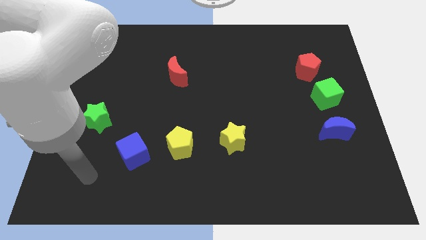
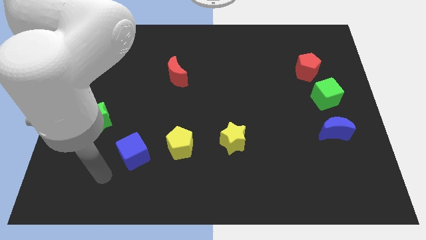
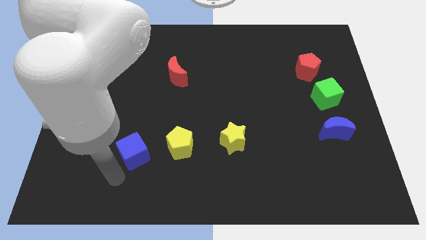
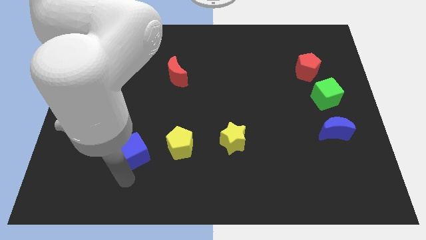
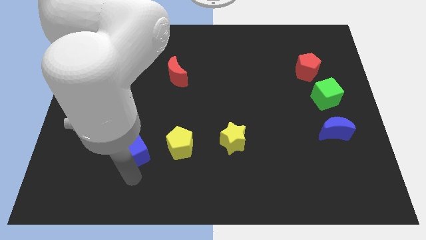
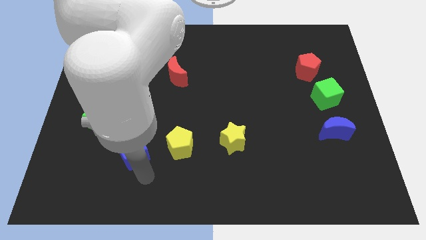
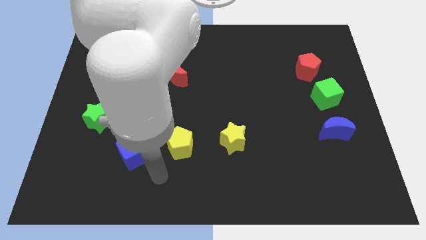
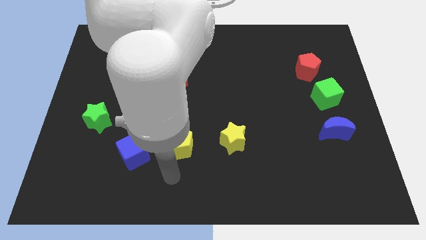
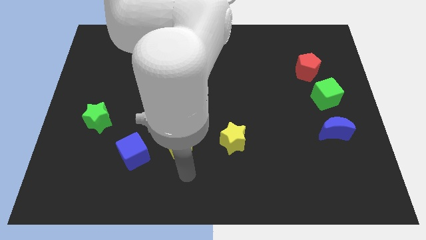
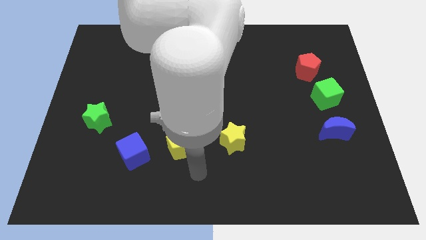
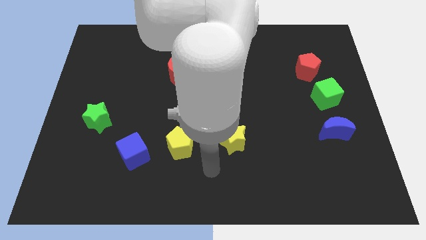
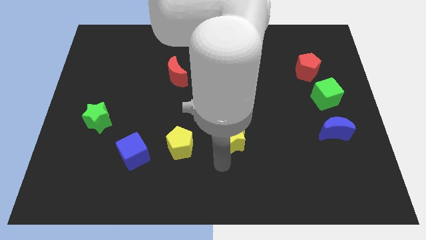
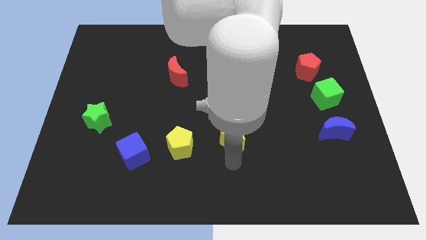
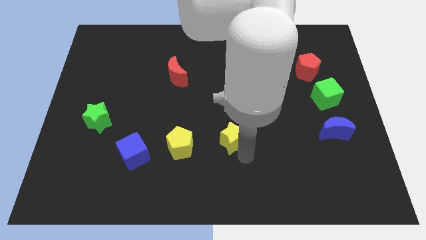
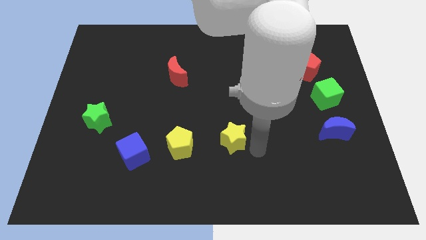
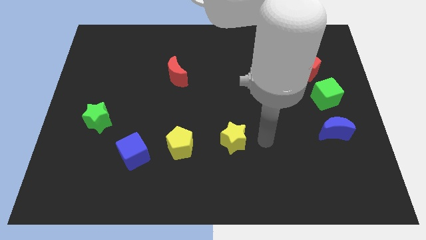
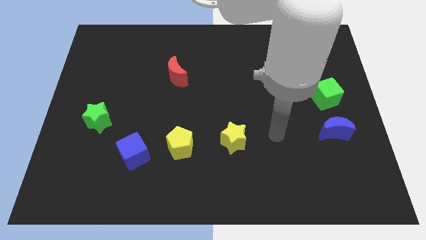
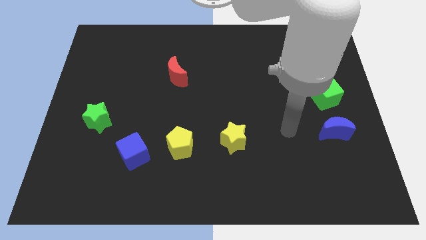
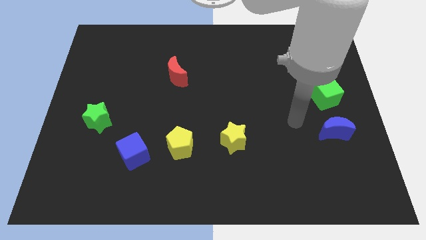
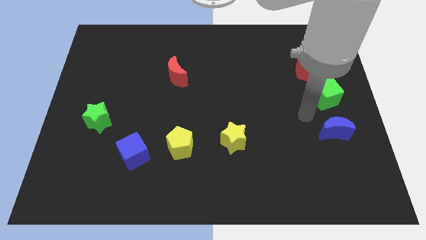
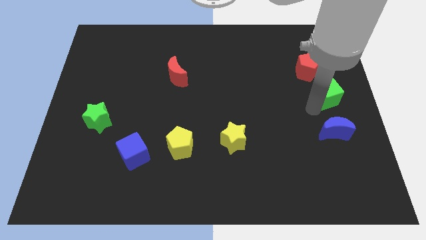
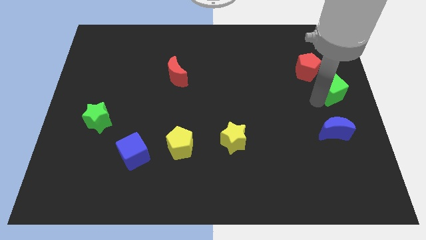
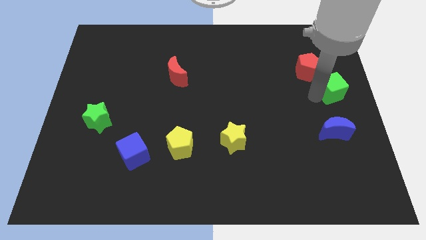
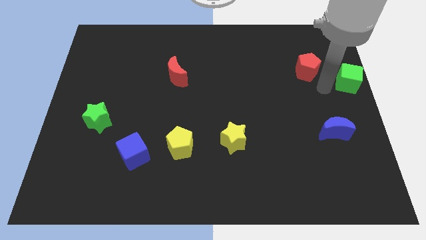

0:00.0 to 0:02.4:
pull the red pentagon apart from the green cube

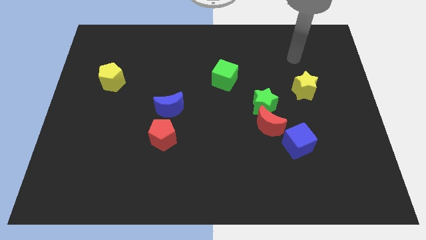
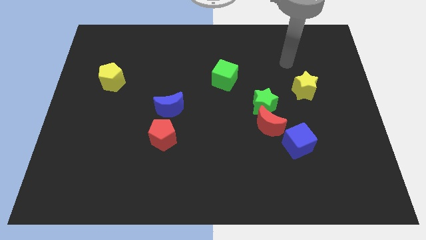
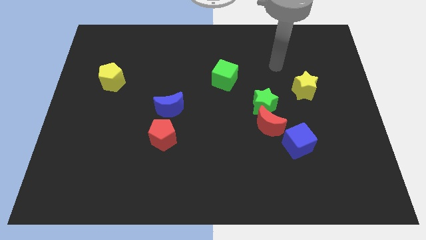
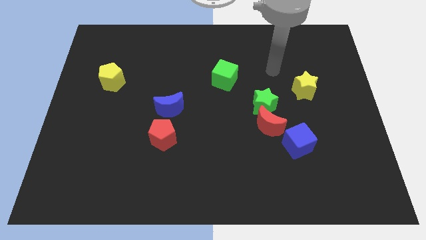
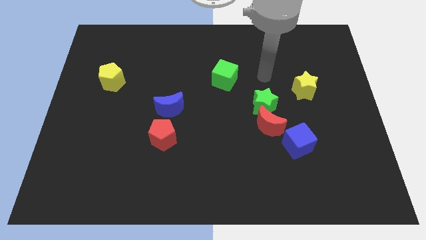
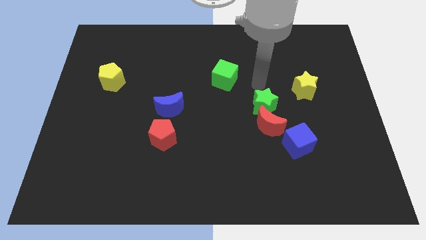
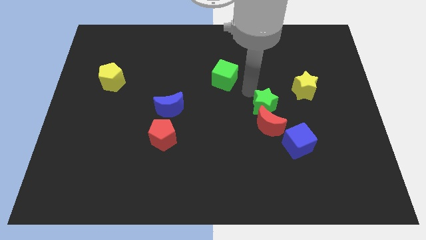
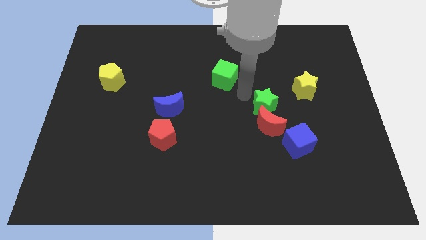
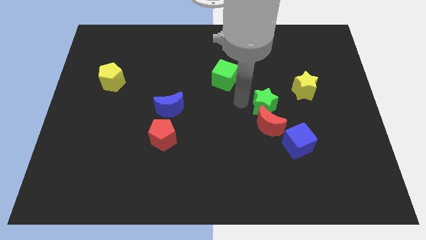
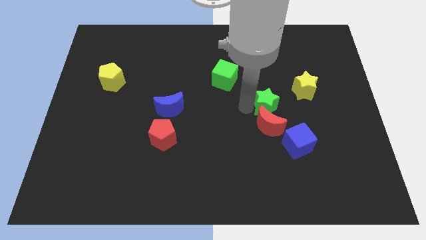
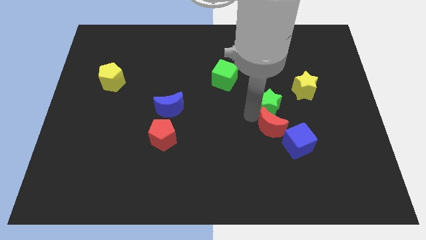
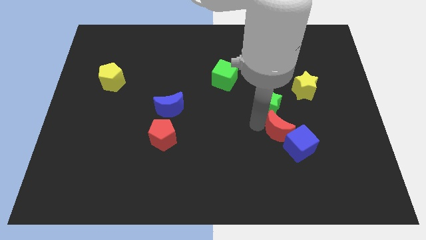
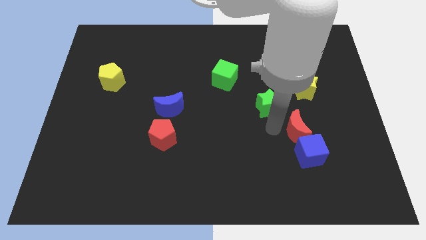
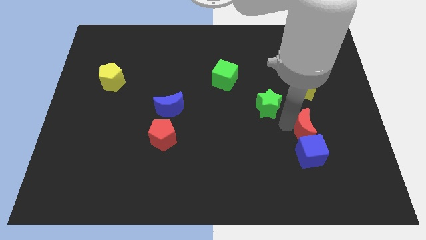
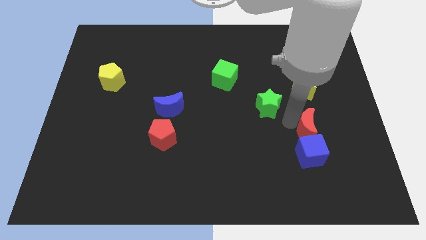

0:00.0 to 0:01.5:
separate the green star from the red moon

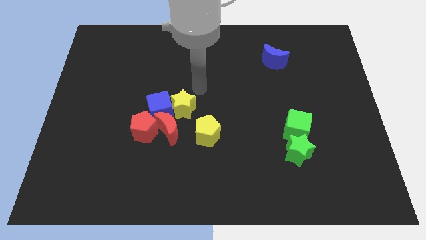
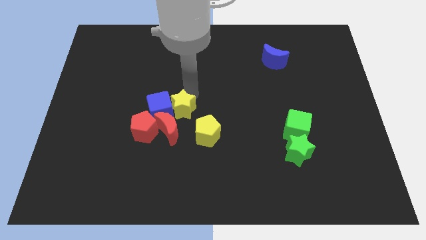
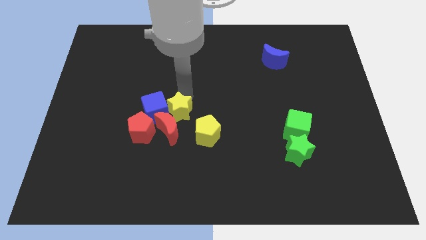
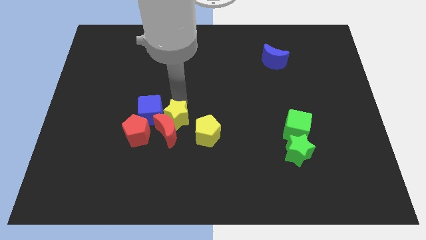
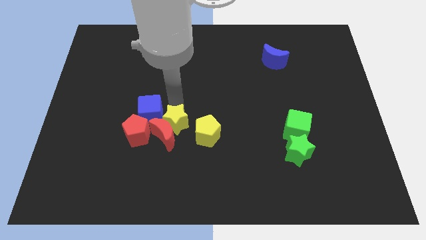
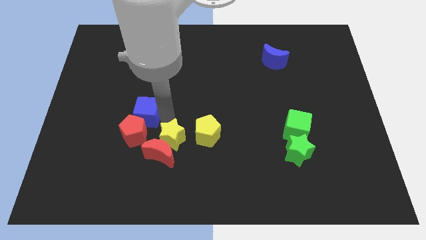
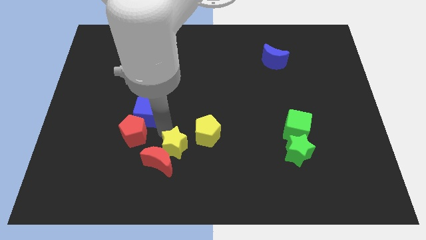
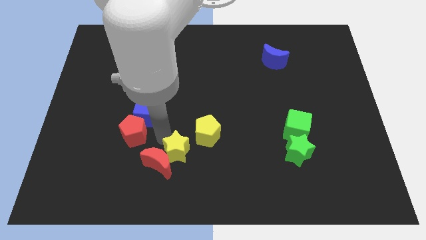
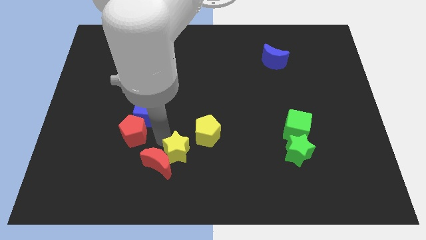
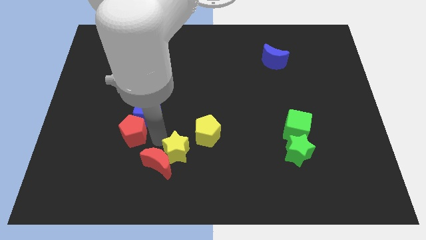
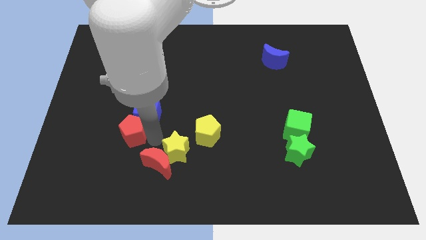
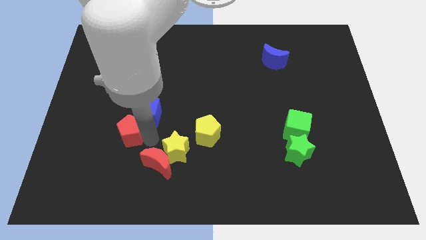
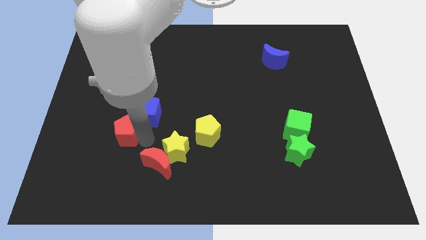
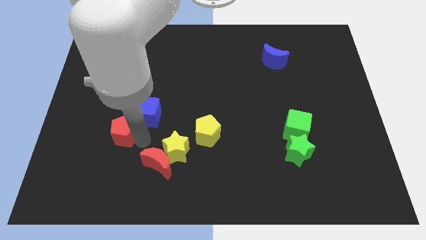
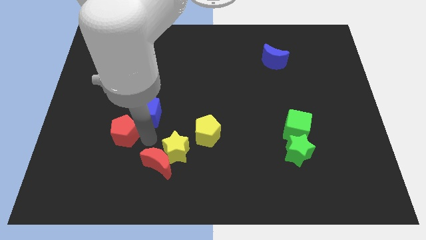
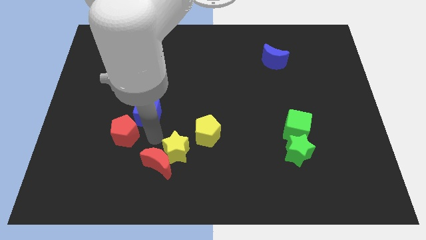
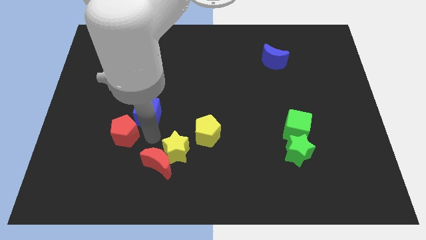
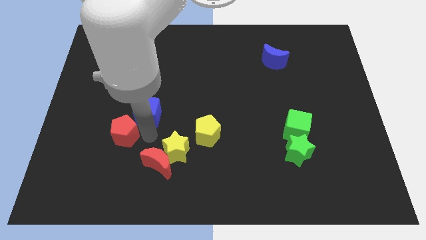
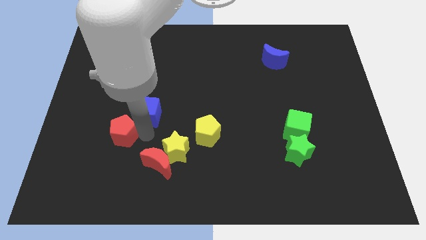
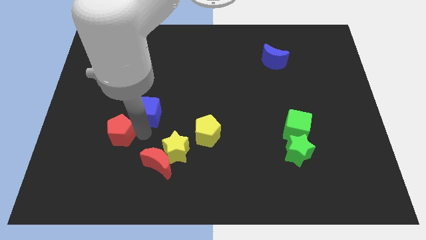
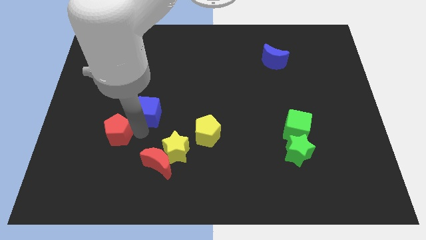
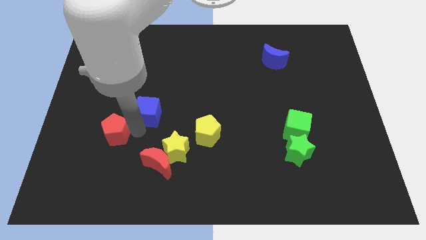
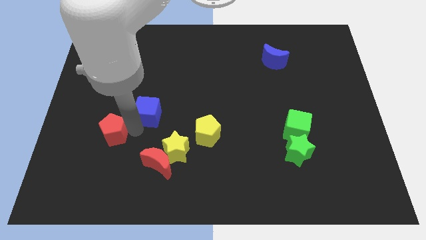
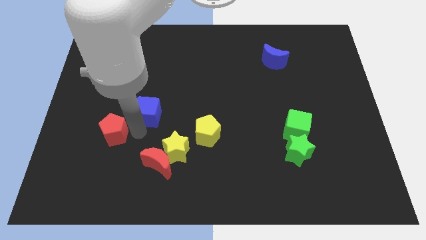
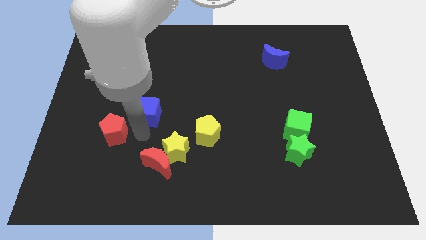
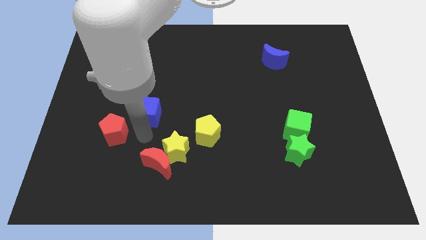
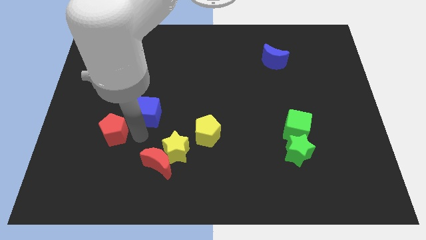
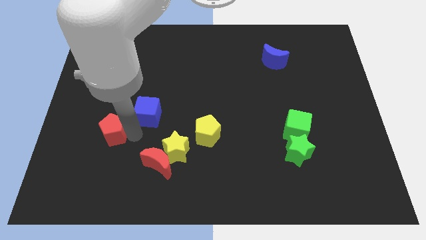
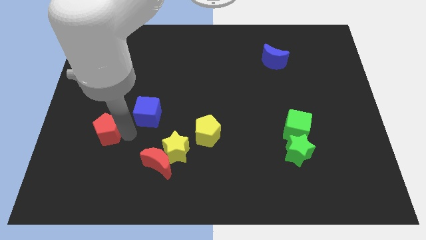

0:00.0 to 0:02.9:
separate the red pentagon from the red moon and blue cube

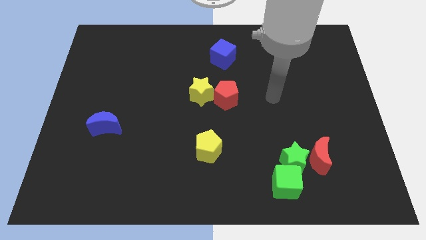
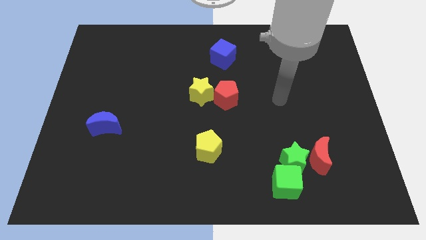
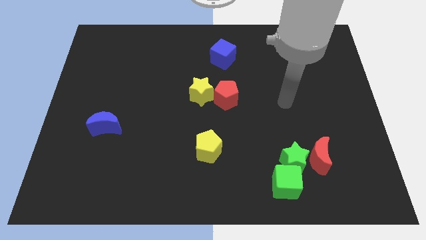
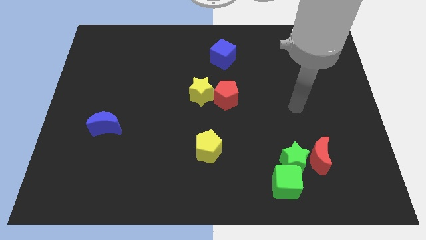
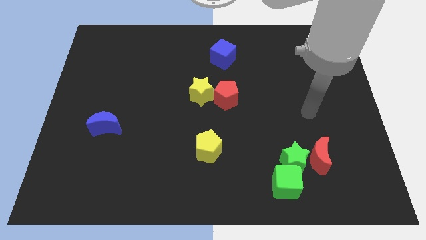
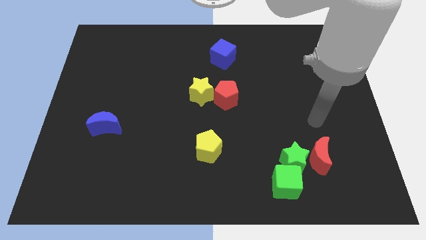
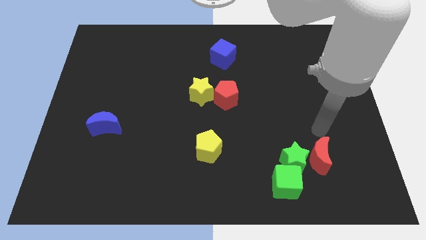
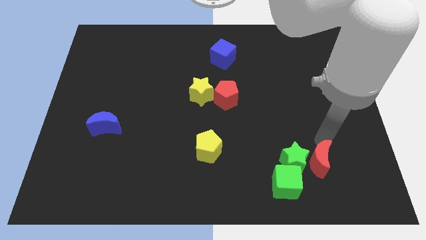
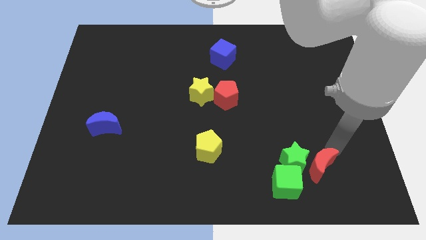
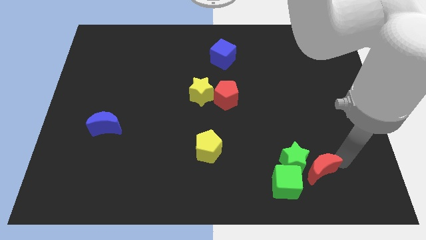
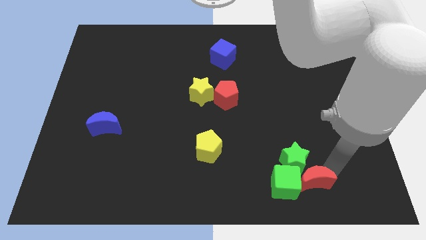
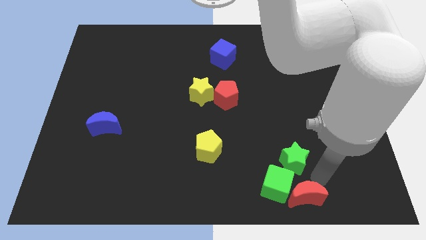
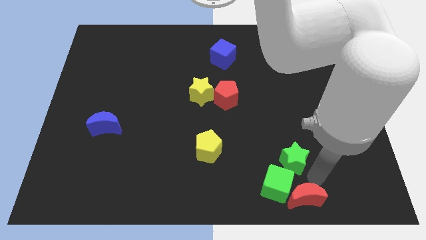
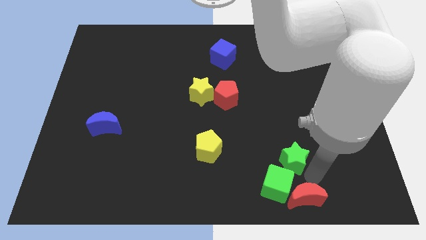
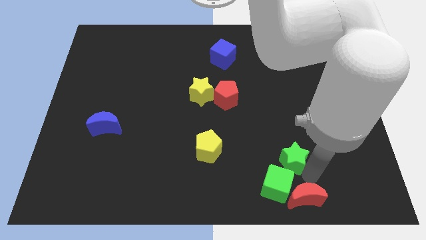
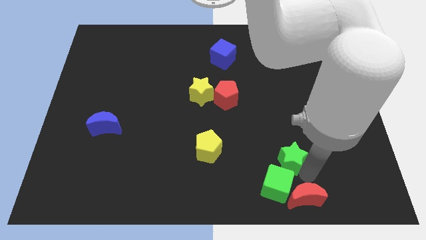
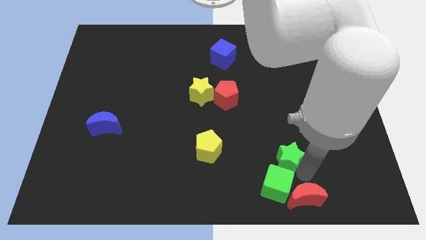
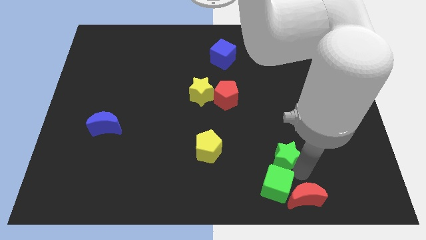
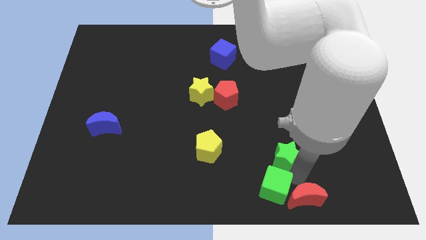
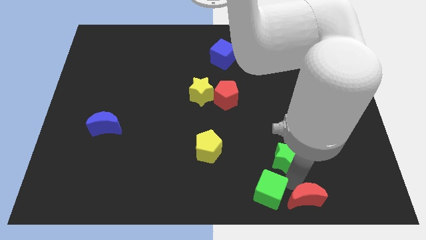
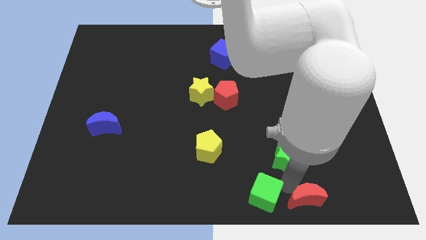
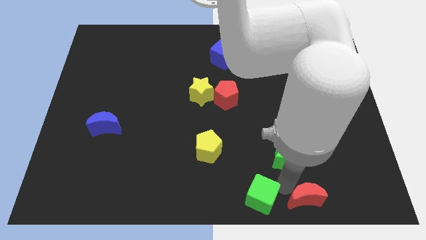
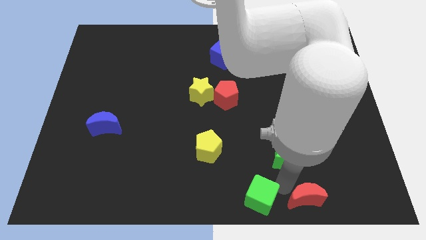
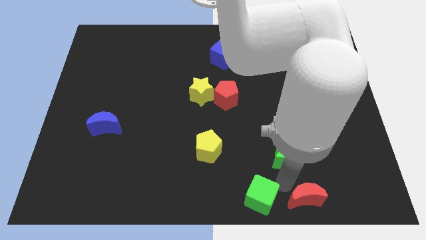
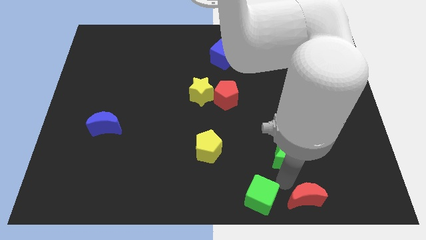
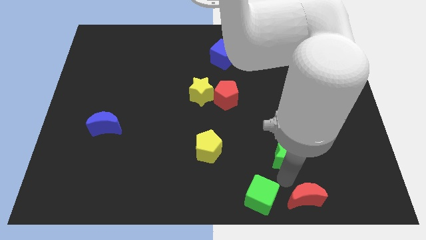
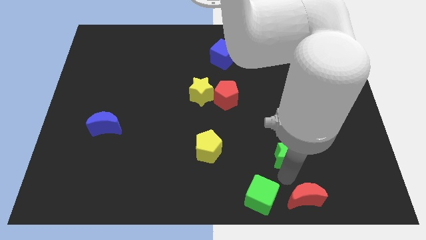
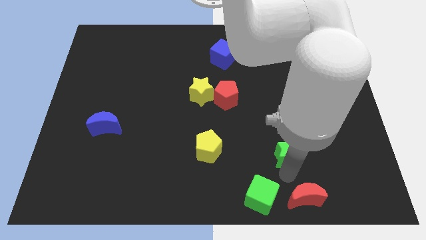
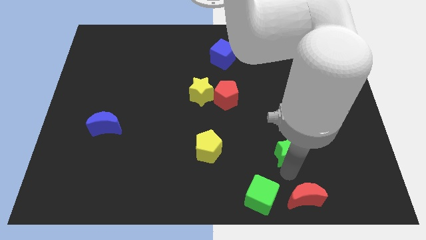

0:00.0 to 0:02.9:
separate the green star from the green cube and red moon
